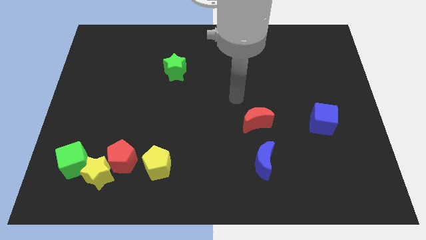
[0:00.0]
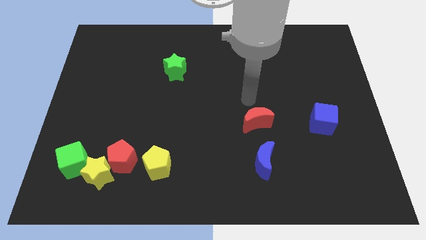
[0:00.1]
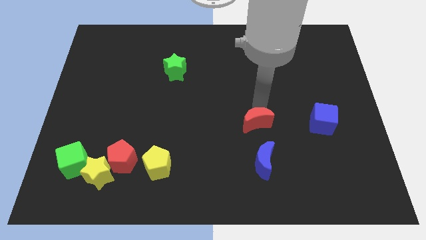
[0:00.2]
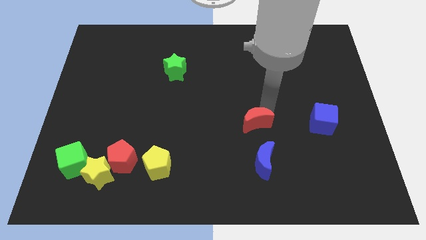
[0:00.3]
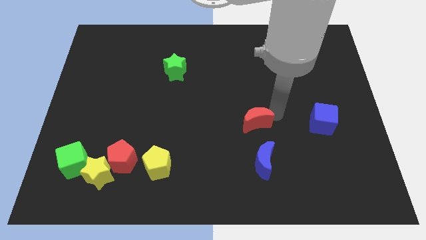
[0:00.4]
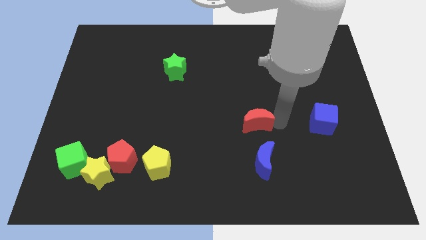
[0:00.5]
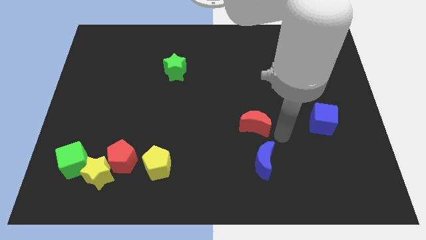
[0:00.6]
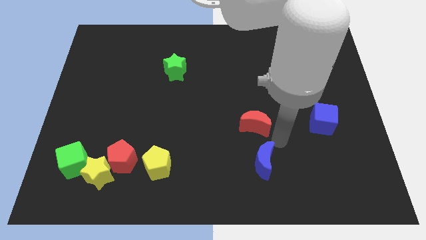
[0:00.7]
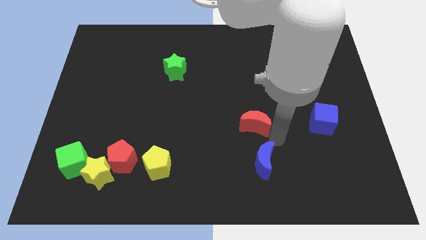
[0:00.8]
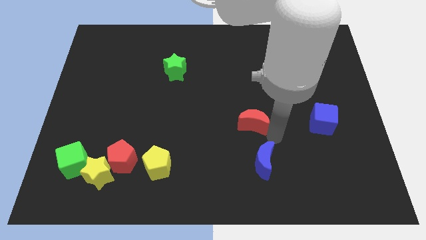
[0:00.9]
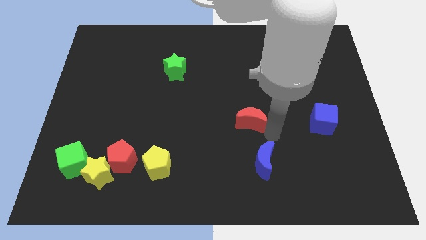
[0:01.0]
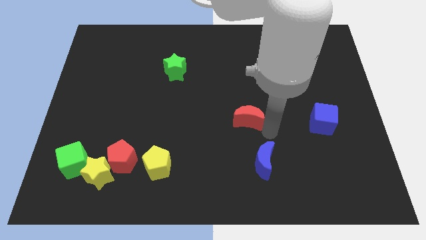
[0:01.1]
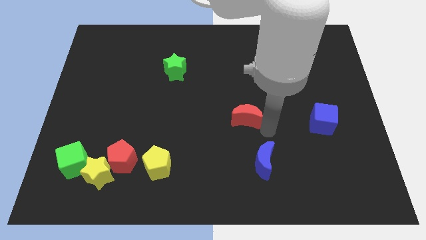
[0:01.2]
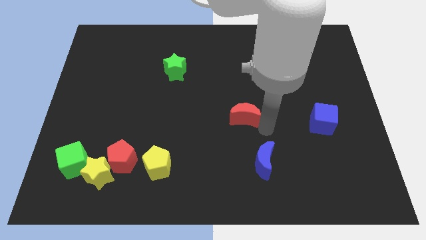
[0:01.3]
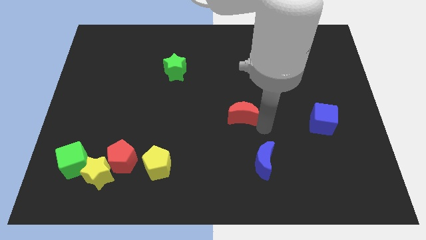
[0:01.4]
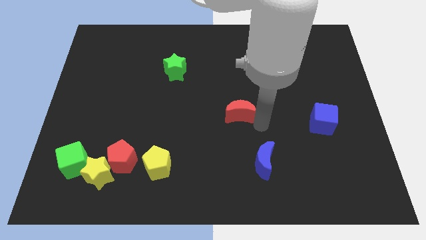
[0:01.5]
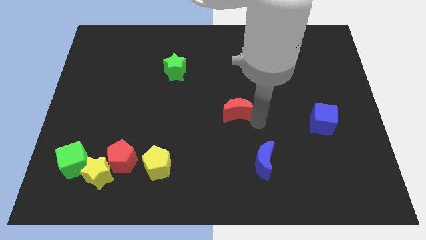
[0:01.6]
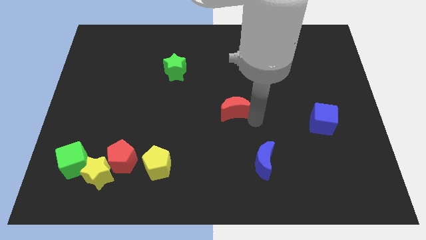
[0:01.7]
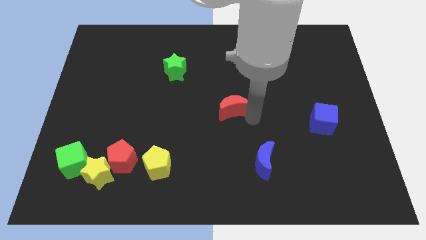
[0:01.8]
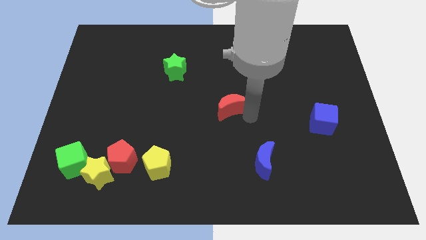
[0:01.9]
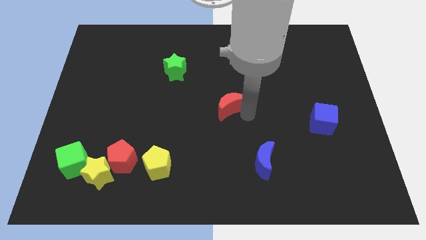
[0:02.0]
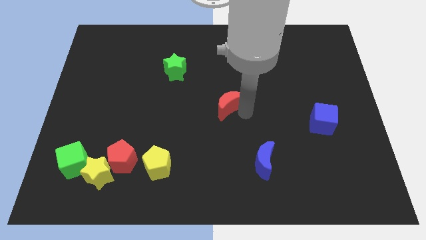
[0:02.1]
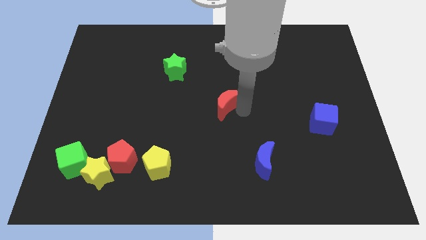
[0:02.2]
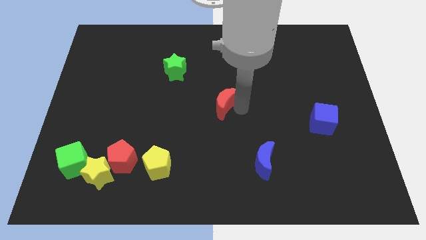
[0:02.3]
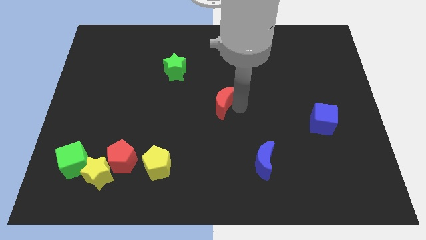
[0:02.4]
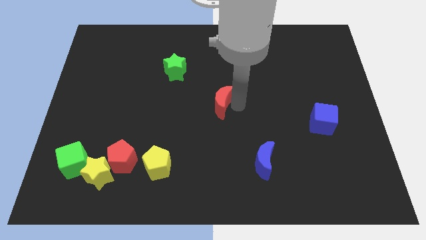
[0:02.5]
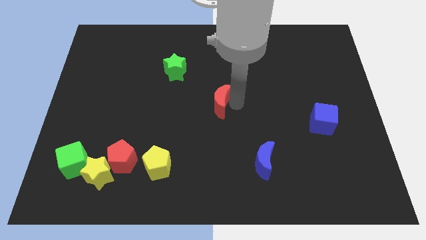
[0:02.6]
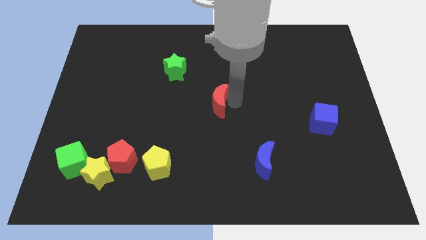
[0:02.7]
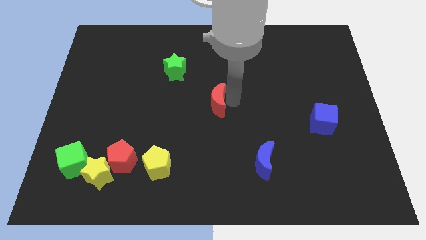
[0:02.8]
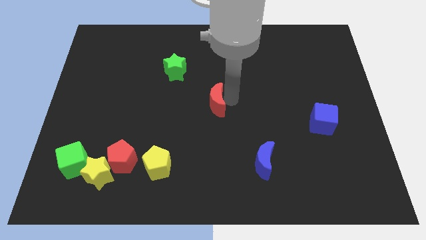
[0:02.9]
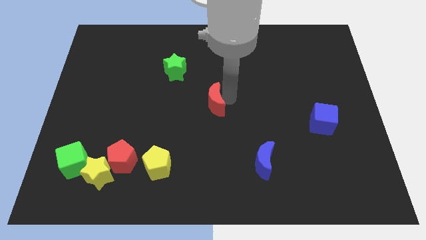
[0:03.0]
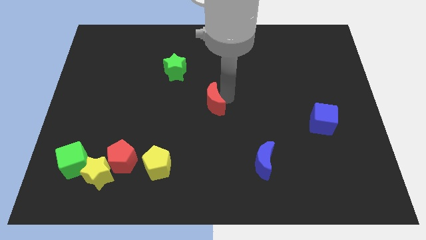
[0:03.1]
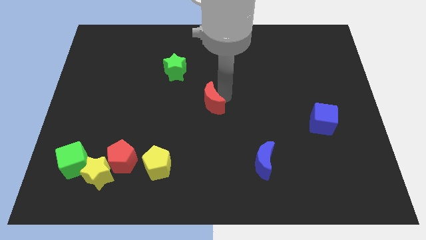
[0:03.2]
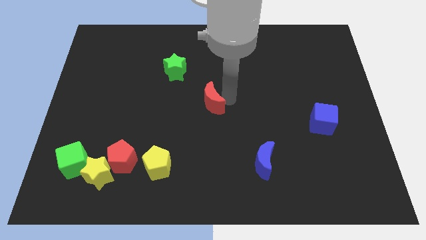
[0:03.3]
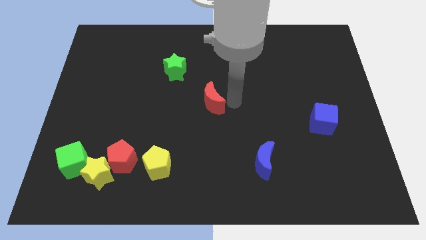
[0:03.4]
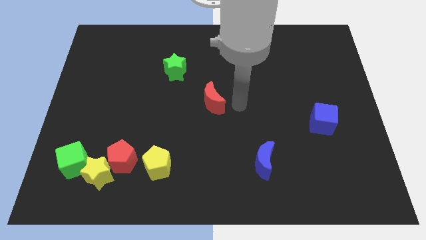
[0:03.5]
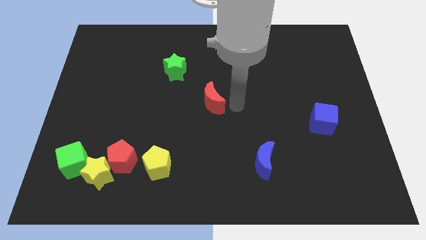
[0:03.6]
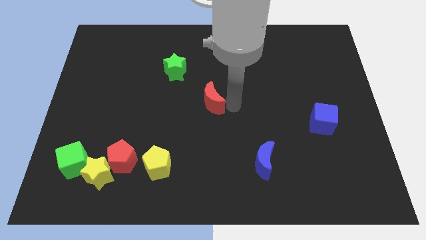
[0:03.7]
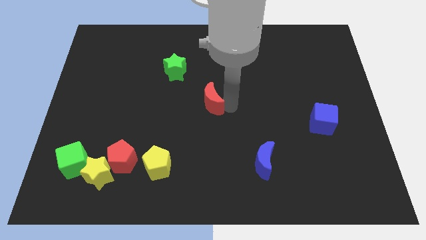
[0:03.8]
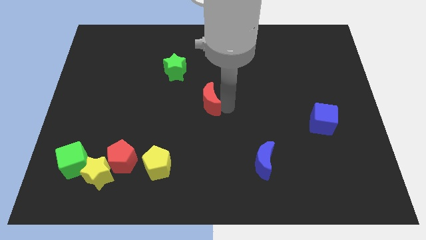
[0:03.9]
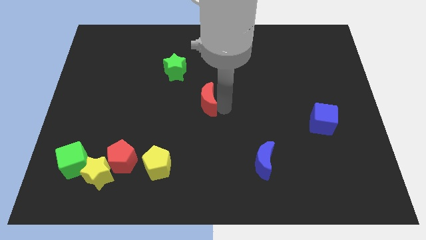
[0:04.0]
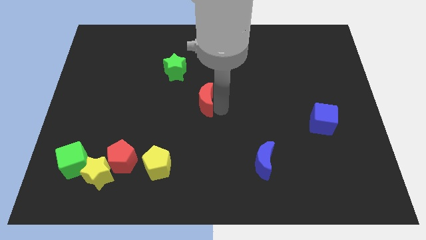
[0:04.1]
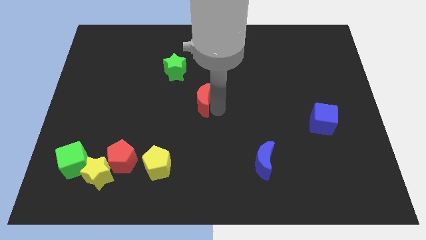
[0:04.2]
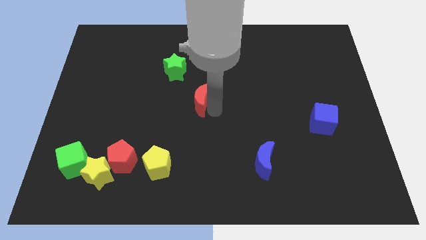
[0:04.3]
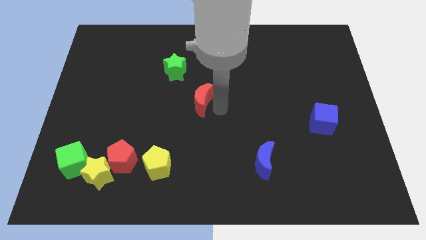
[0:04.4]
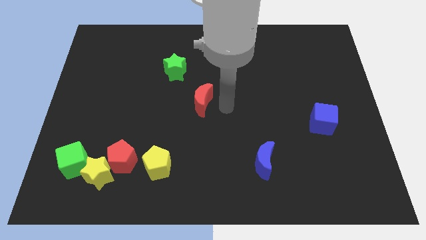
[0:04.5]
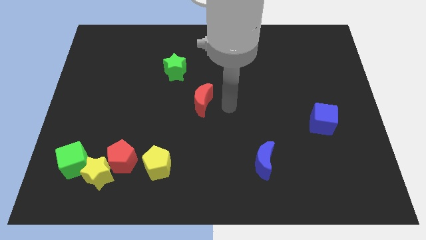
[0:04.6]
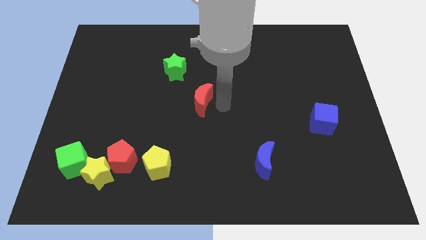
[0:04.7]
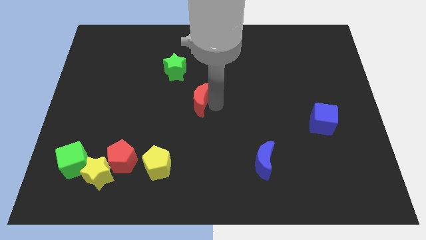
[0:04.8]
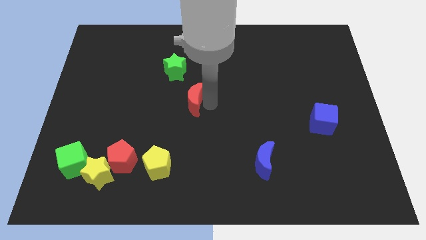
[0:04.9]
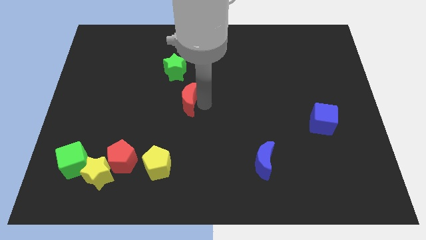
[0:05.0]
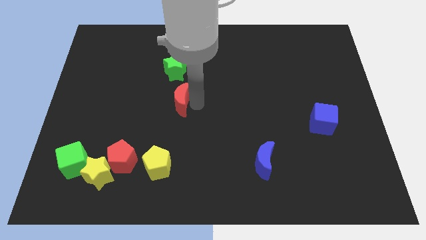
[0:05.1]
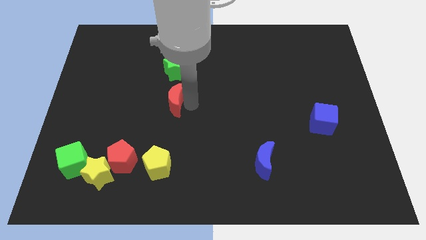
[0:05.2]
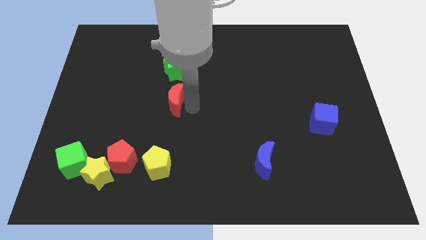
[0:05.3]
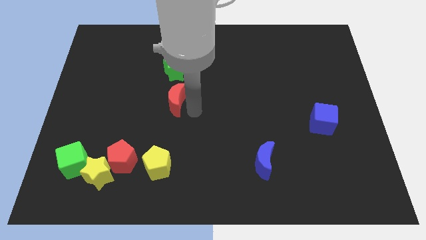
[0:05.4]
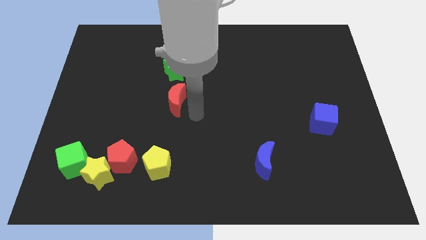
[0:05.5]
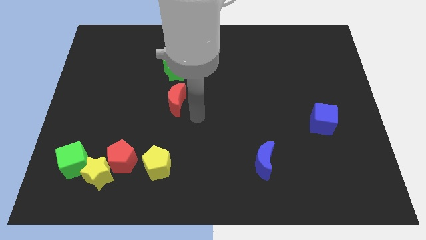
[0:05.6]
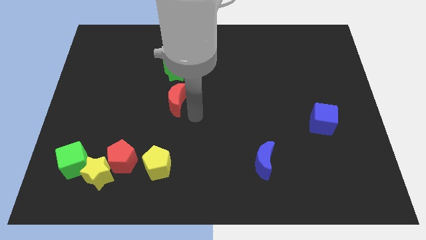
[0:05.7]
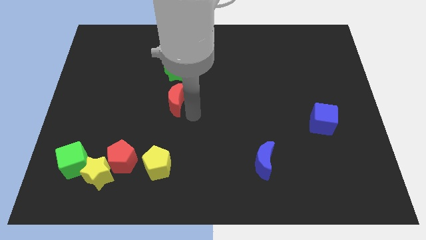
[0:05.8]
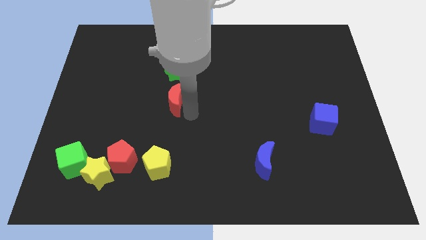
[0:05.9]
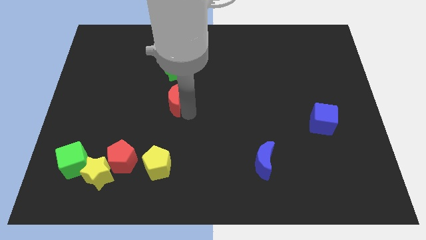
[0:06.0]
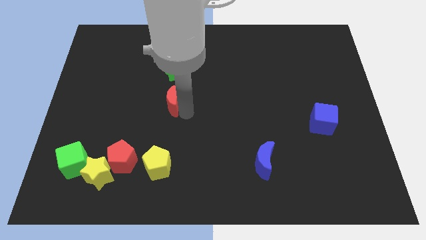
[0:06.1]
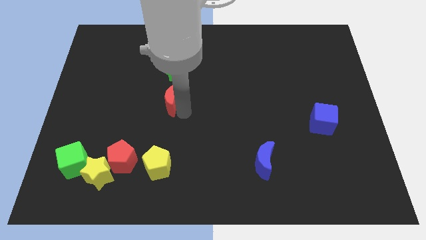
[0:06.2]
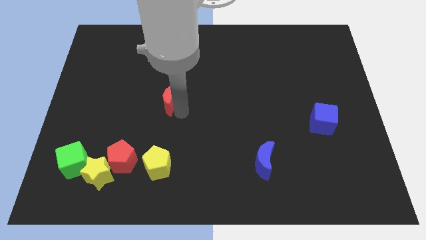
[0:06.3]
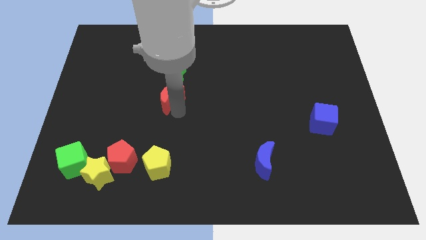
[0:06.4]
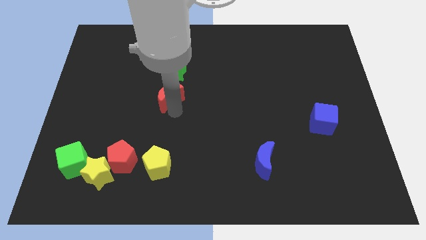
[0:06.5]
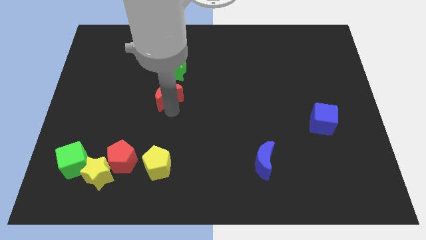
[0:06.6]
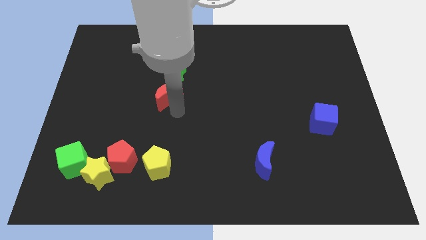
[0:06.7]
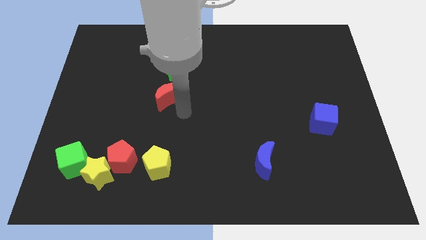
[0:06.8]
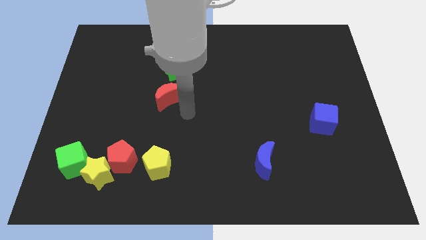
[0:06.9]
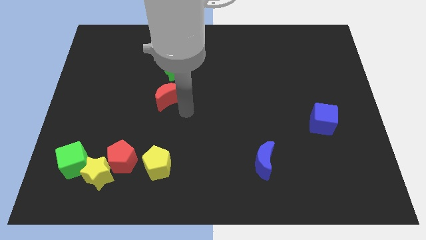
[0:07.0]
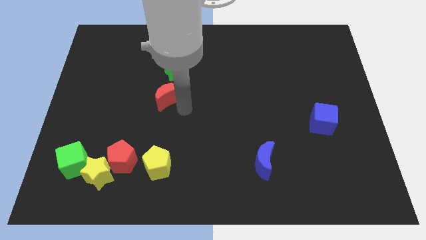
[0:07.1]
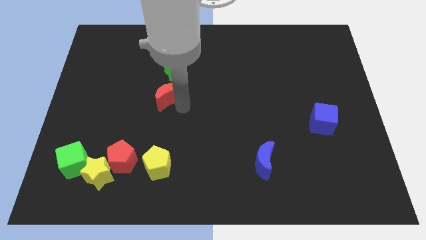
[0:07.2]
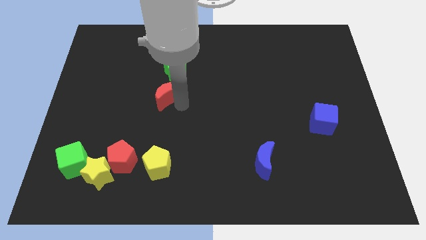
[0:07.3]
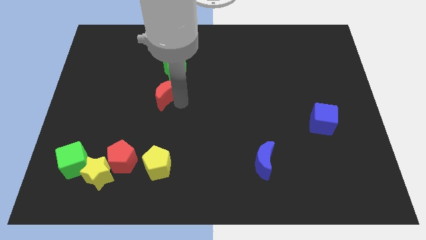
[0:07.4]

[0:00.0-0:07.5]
slide the red moon diagonally down and to the left of the green star
